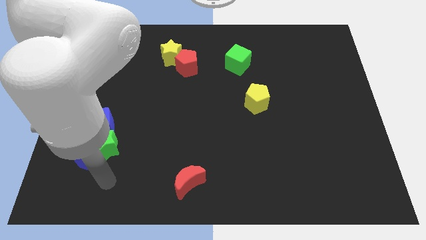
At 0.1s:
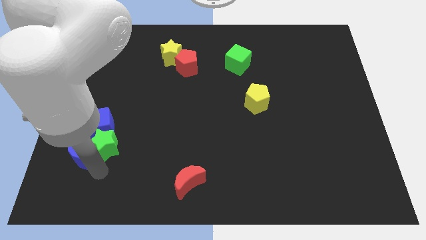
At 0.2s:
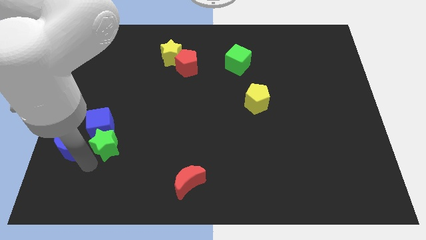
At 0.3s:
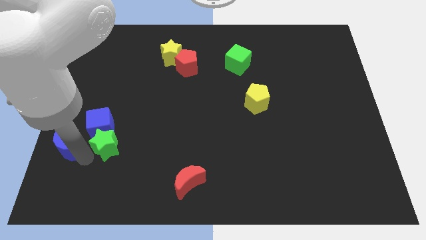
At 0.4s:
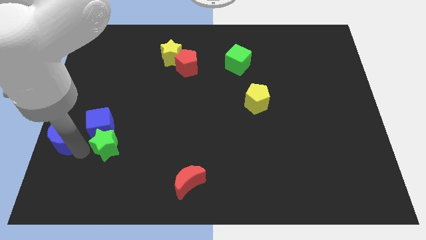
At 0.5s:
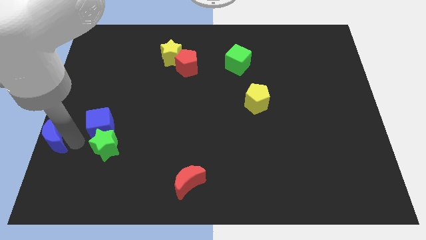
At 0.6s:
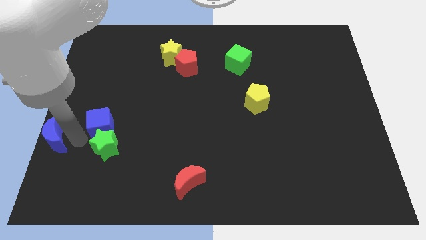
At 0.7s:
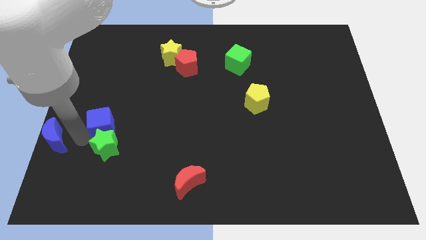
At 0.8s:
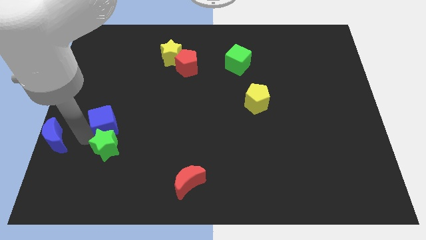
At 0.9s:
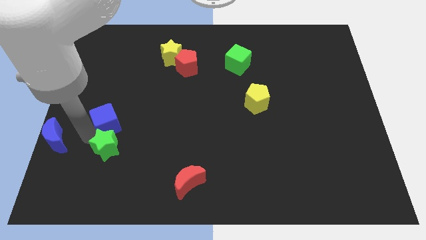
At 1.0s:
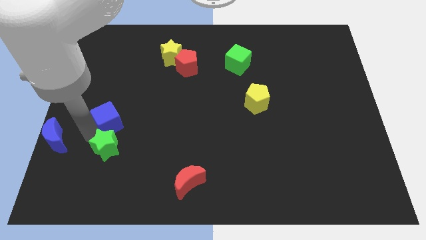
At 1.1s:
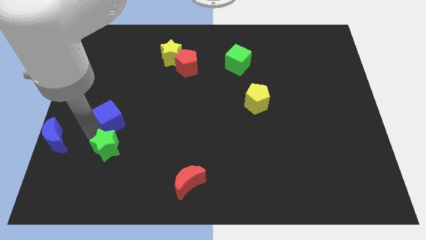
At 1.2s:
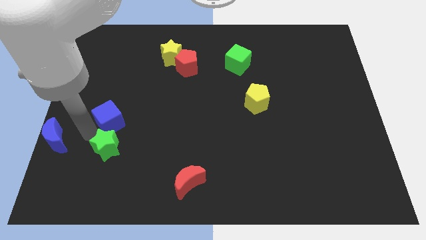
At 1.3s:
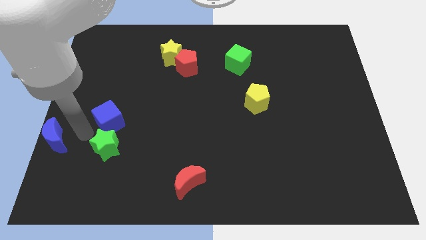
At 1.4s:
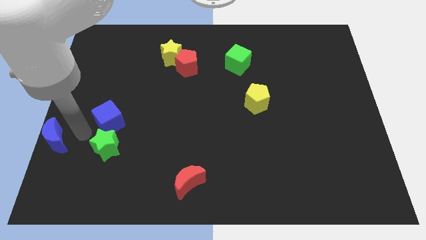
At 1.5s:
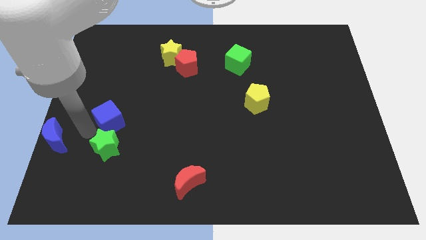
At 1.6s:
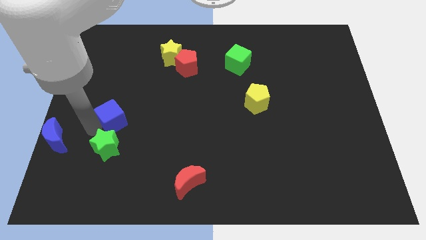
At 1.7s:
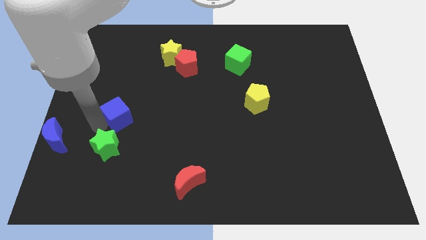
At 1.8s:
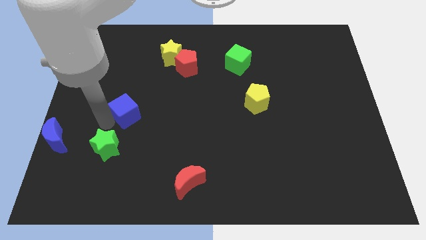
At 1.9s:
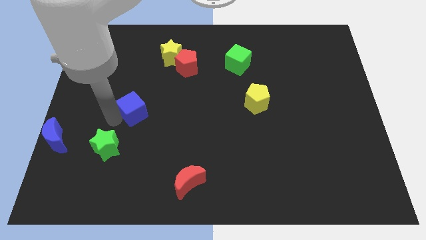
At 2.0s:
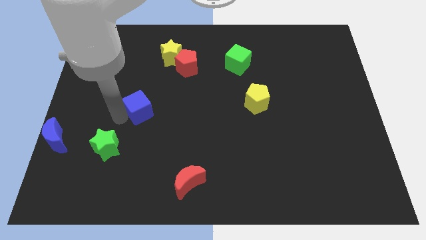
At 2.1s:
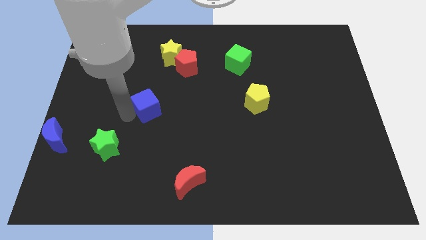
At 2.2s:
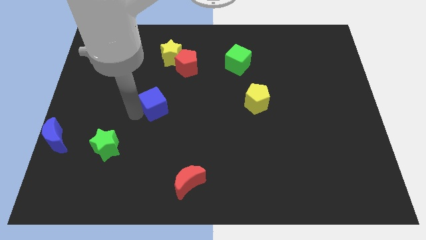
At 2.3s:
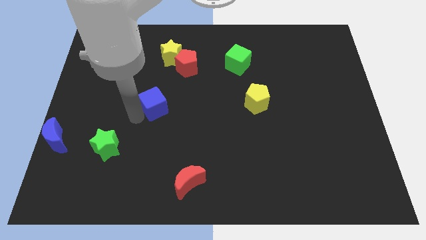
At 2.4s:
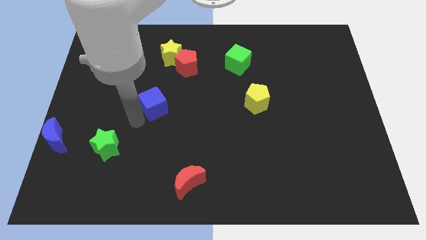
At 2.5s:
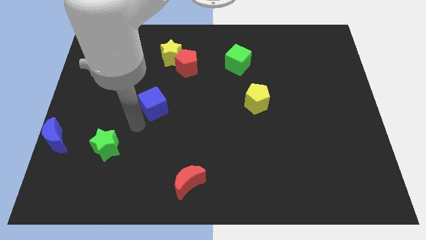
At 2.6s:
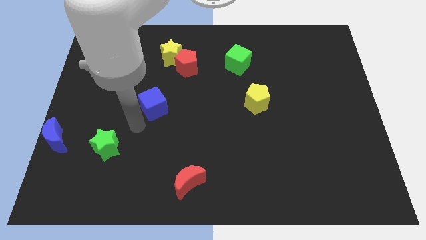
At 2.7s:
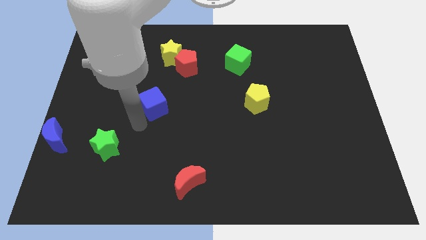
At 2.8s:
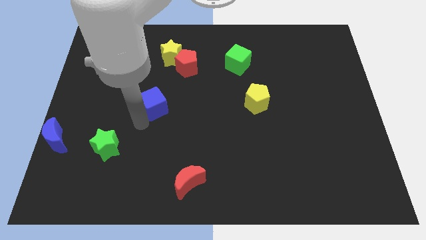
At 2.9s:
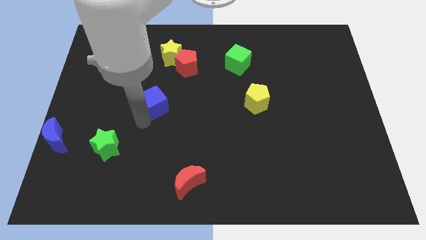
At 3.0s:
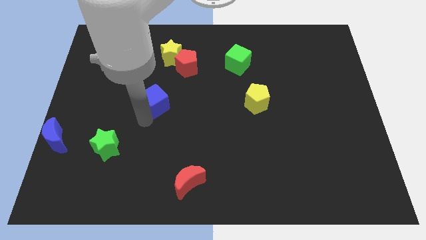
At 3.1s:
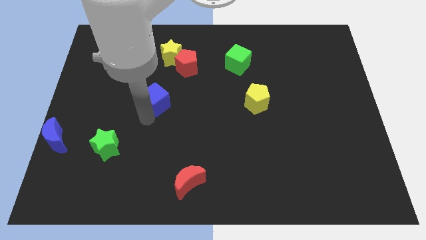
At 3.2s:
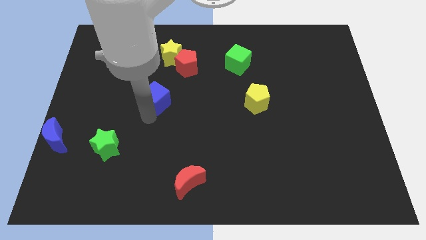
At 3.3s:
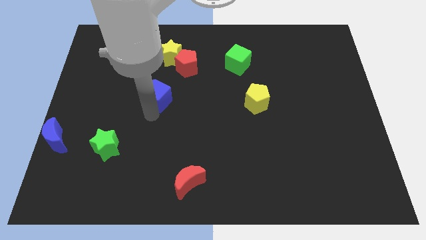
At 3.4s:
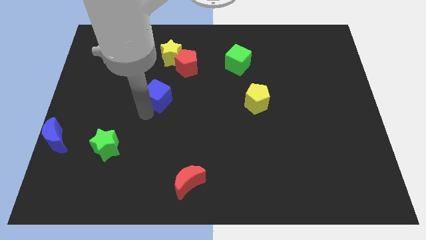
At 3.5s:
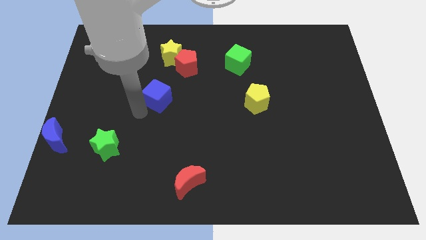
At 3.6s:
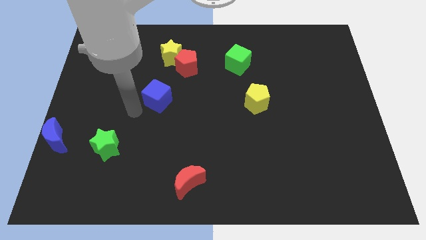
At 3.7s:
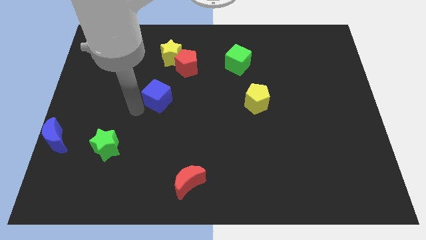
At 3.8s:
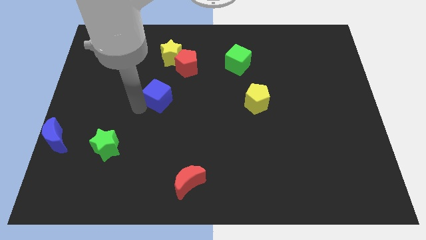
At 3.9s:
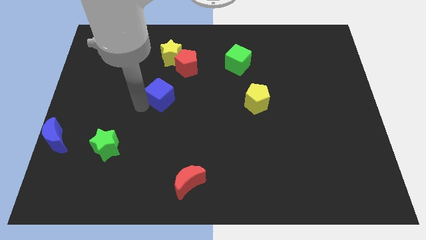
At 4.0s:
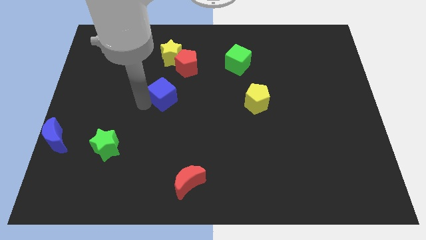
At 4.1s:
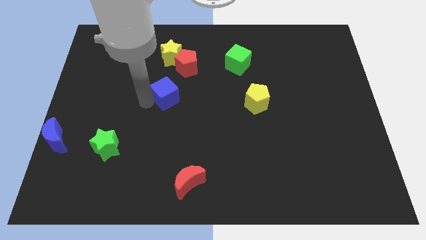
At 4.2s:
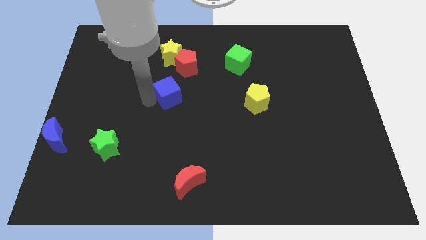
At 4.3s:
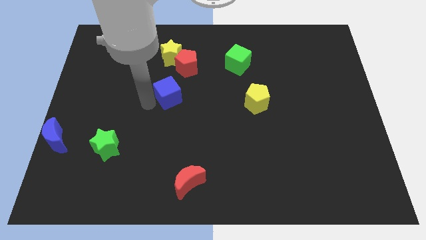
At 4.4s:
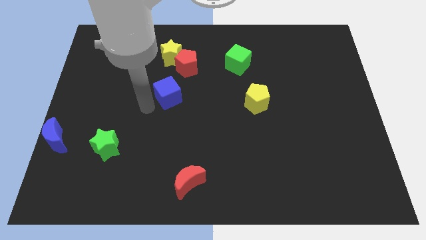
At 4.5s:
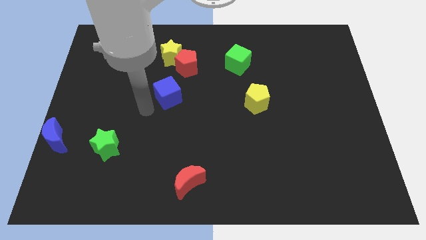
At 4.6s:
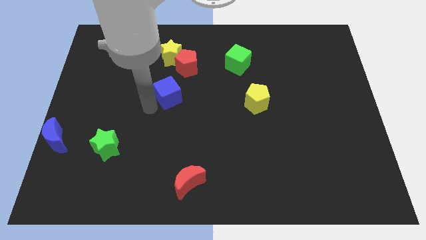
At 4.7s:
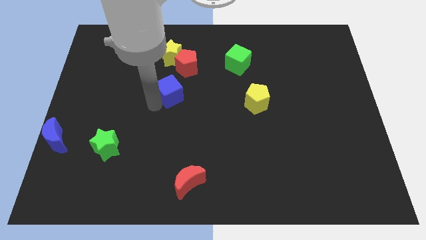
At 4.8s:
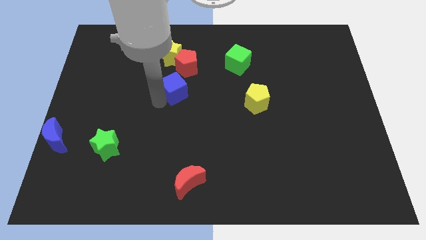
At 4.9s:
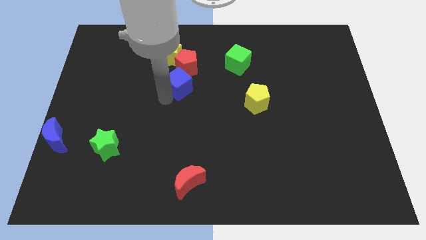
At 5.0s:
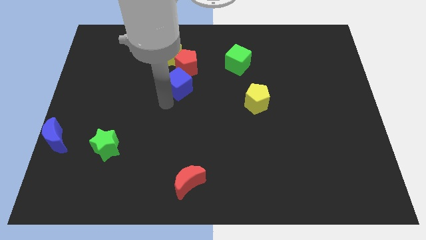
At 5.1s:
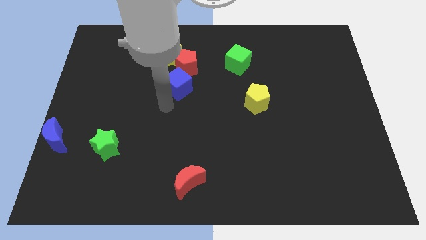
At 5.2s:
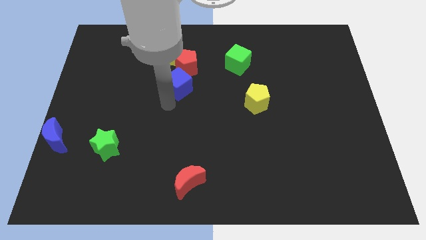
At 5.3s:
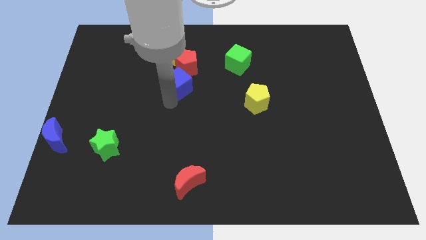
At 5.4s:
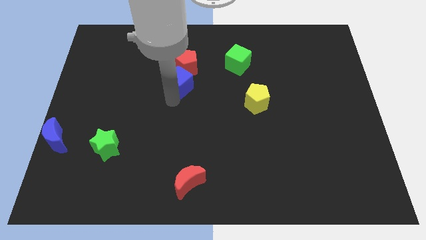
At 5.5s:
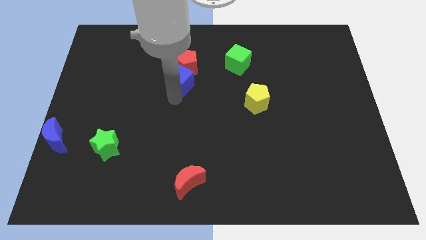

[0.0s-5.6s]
put the blue cube to the bottom right of the yellow star

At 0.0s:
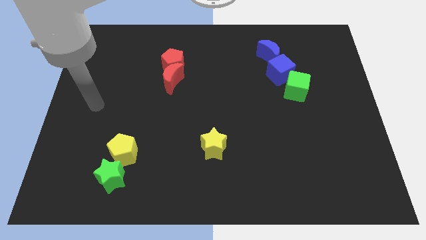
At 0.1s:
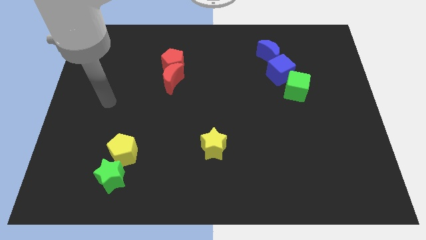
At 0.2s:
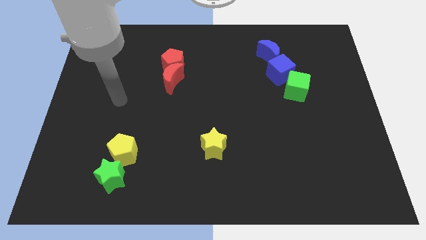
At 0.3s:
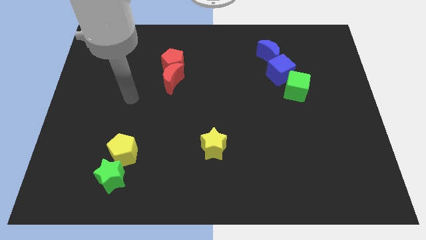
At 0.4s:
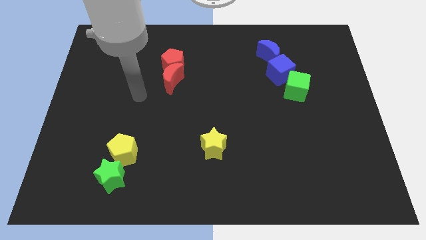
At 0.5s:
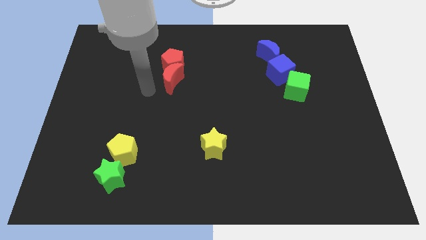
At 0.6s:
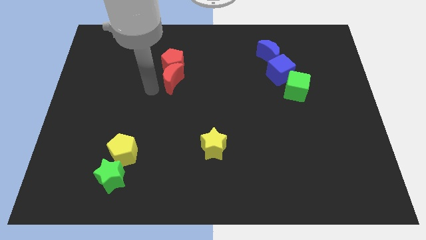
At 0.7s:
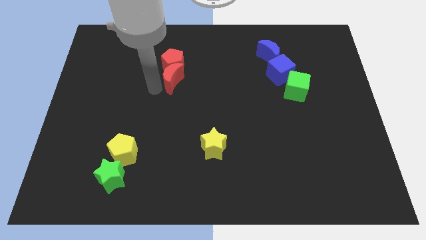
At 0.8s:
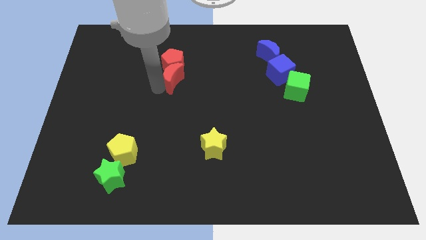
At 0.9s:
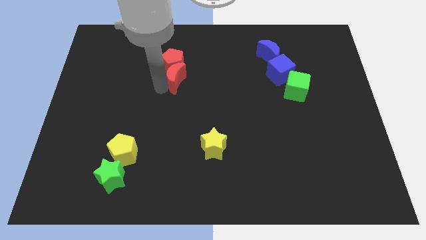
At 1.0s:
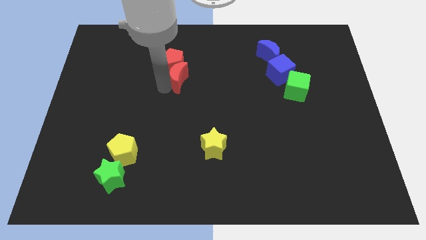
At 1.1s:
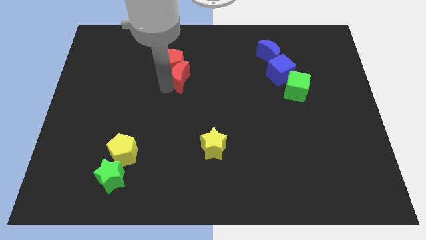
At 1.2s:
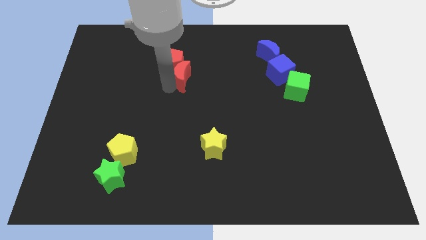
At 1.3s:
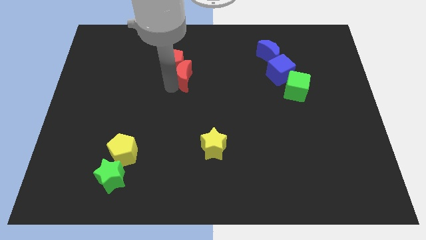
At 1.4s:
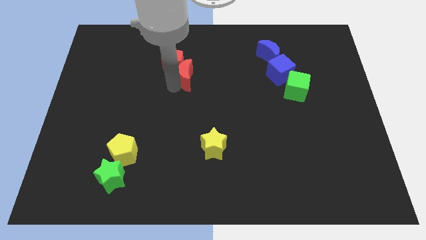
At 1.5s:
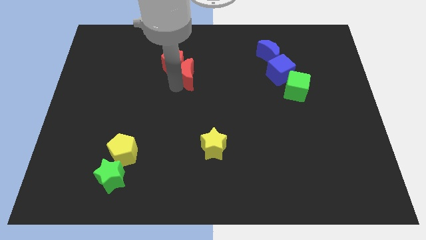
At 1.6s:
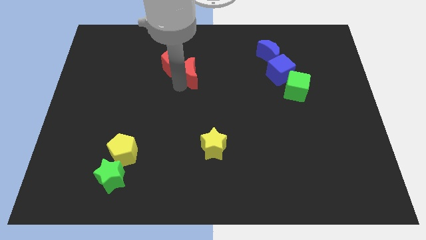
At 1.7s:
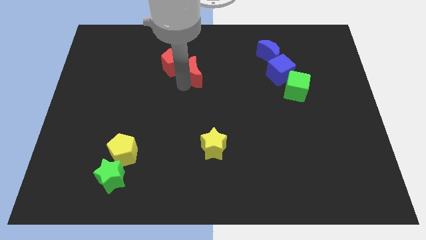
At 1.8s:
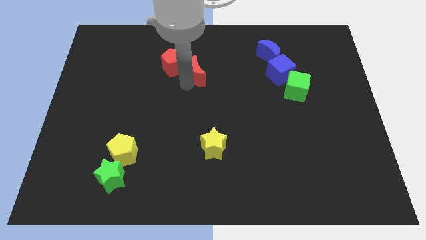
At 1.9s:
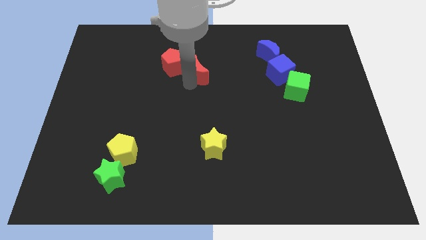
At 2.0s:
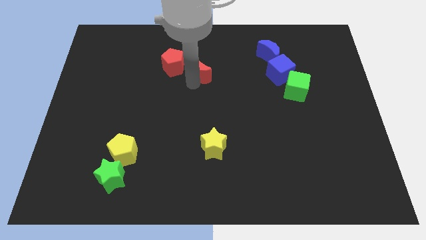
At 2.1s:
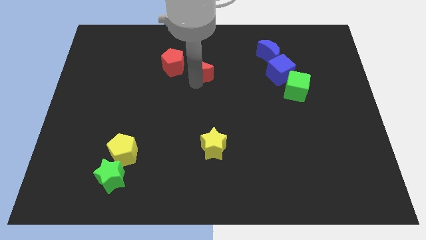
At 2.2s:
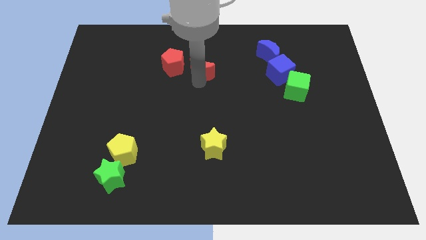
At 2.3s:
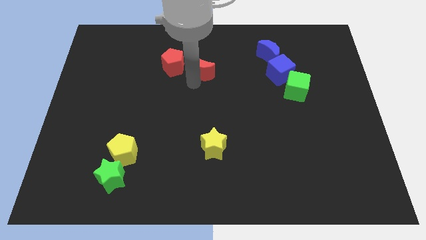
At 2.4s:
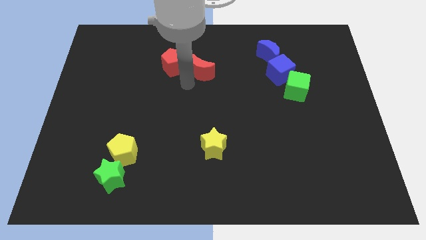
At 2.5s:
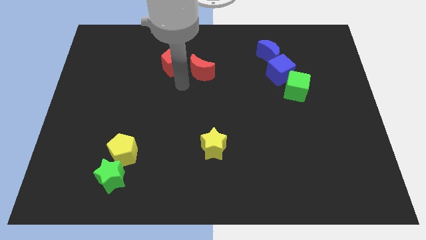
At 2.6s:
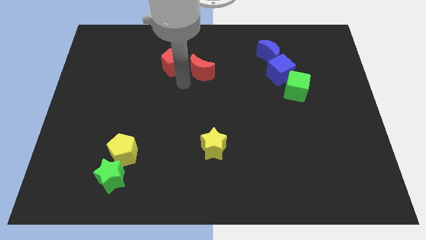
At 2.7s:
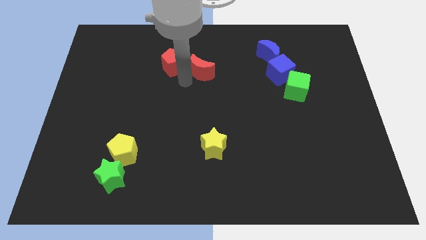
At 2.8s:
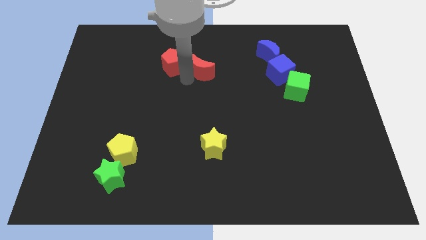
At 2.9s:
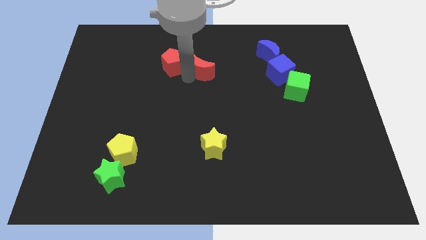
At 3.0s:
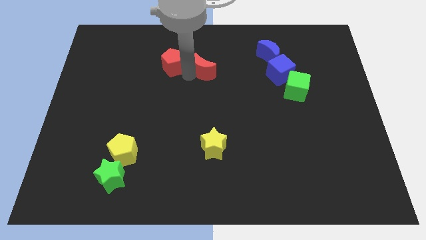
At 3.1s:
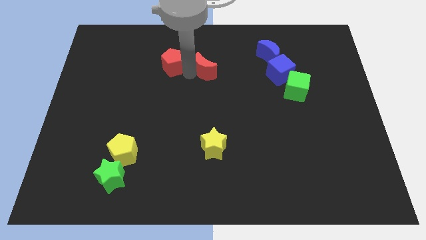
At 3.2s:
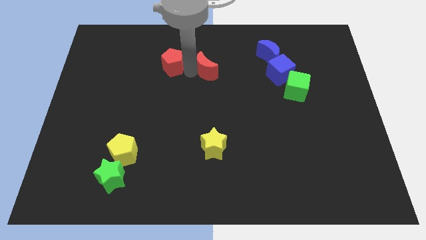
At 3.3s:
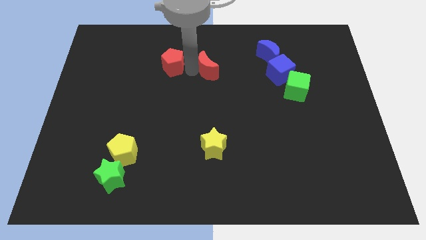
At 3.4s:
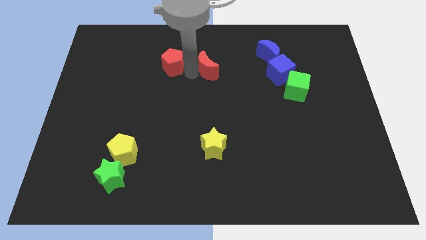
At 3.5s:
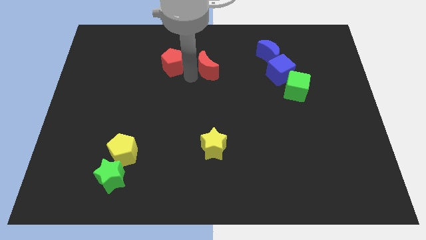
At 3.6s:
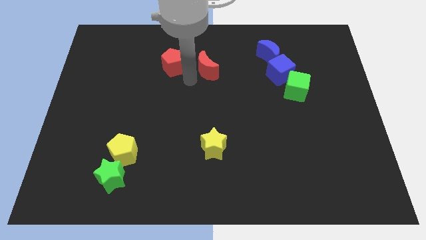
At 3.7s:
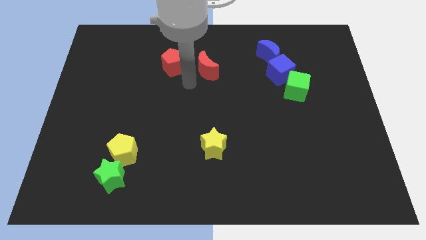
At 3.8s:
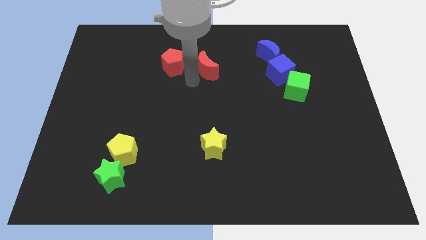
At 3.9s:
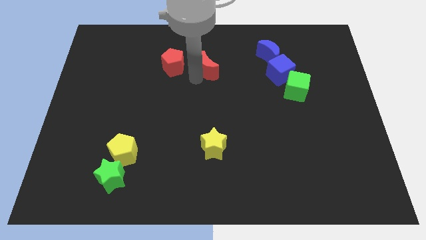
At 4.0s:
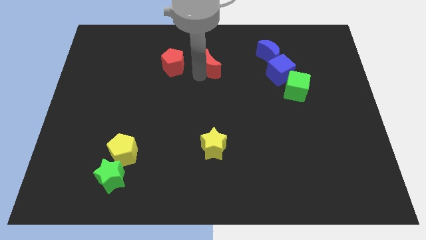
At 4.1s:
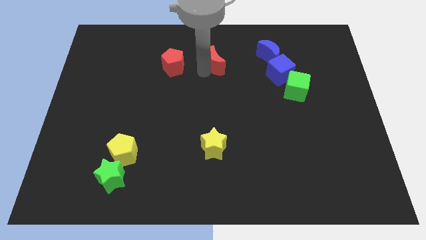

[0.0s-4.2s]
put the red moon to the left side of the blue moon
